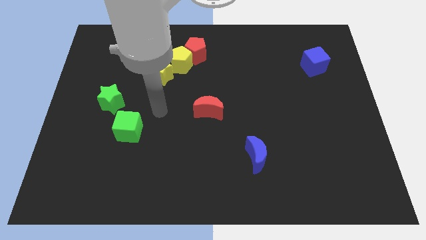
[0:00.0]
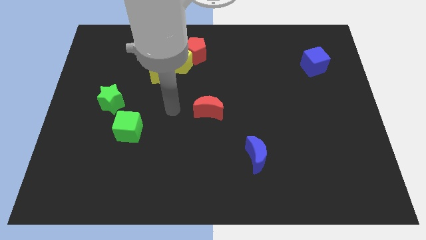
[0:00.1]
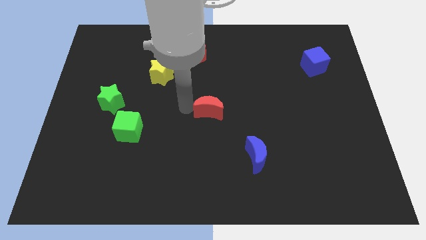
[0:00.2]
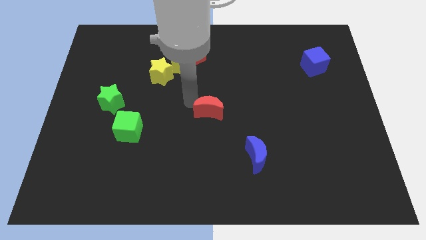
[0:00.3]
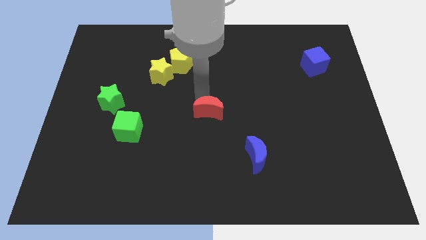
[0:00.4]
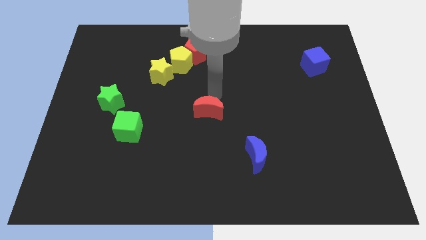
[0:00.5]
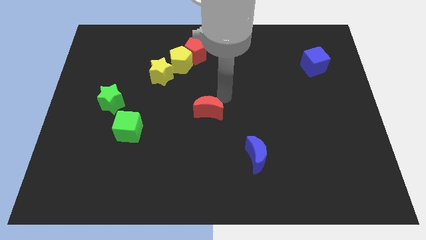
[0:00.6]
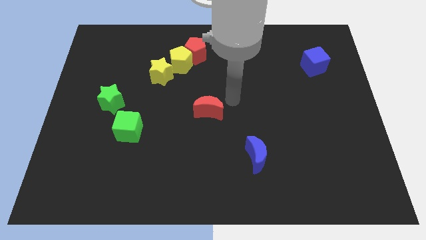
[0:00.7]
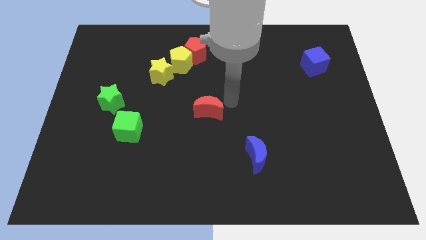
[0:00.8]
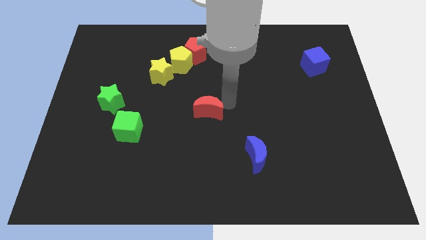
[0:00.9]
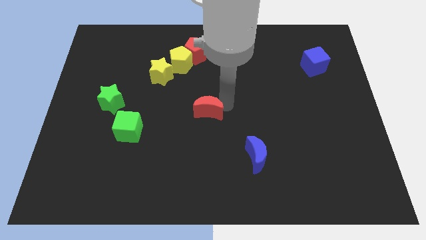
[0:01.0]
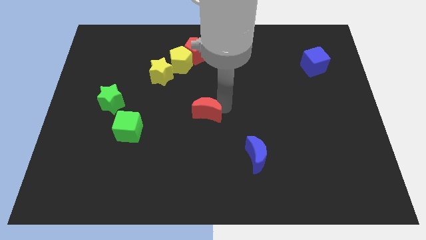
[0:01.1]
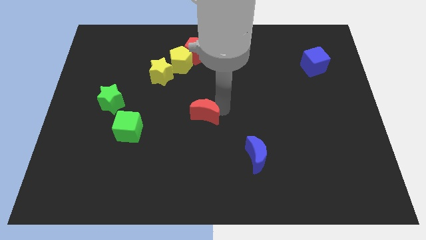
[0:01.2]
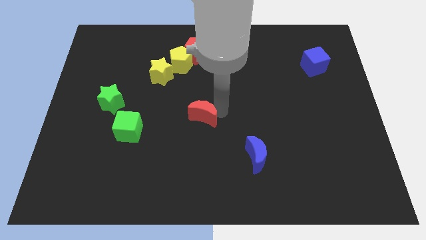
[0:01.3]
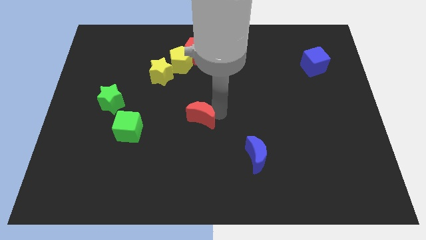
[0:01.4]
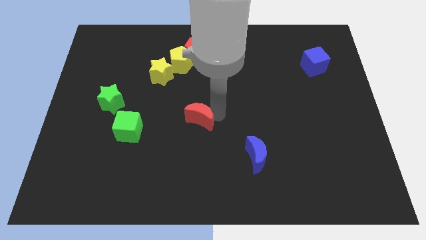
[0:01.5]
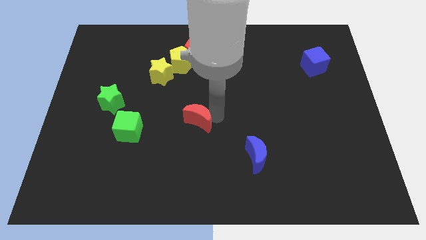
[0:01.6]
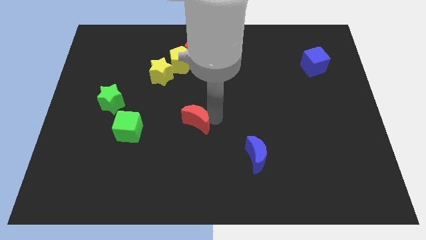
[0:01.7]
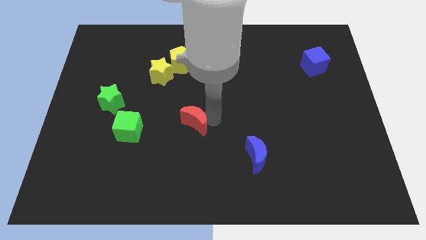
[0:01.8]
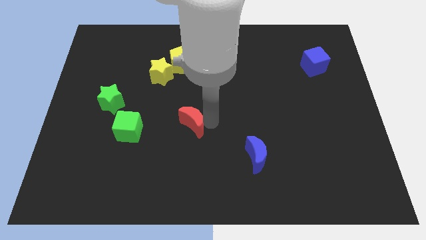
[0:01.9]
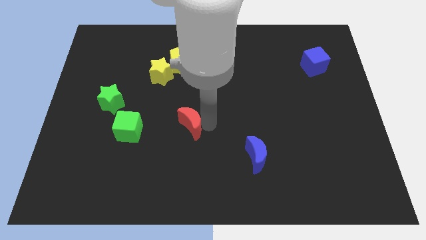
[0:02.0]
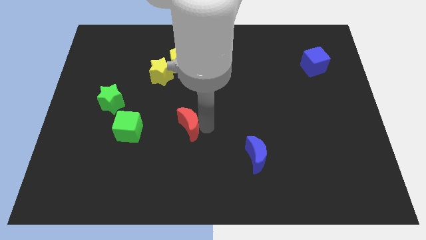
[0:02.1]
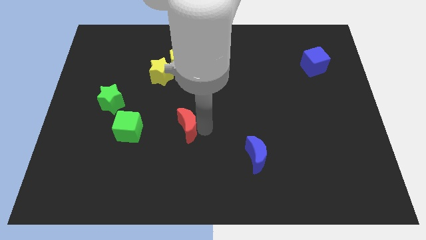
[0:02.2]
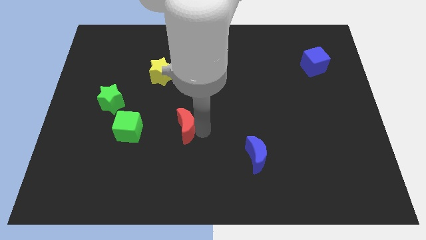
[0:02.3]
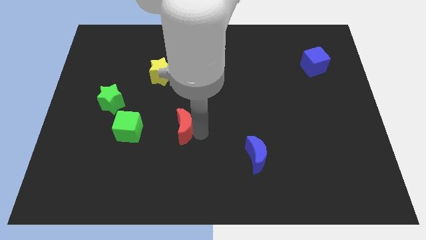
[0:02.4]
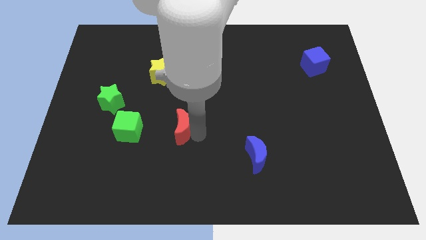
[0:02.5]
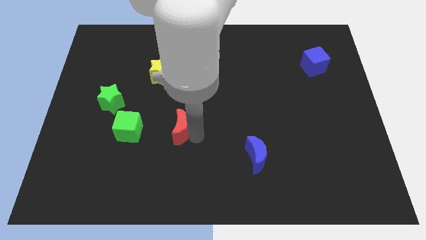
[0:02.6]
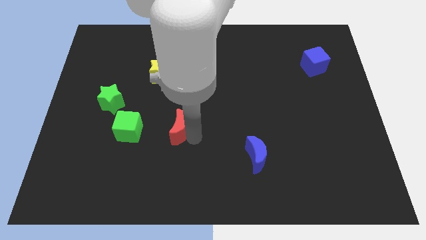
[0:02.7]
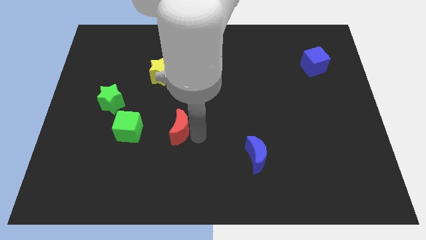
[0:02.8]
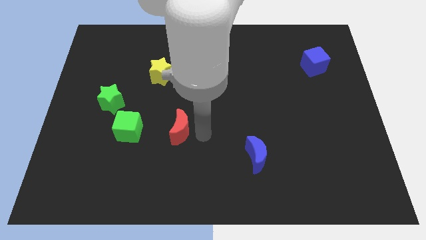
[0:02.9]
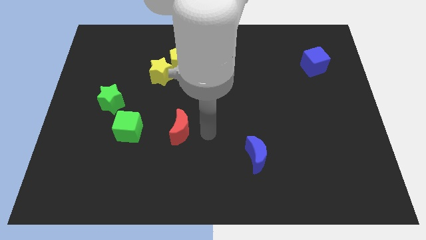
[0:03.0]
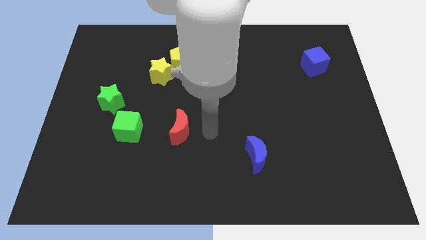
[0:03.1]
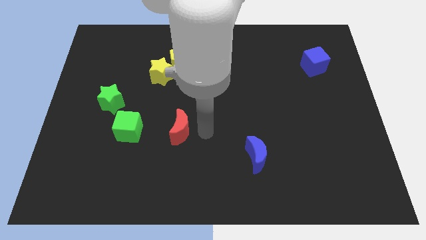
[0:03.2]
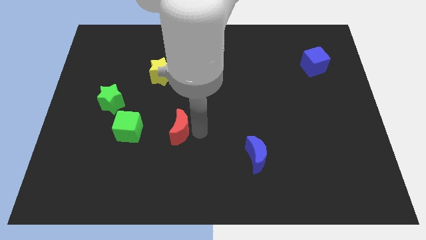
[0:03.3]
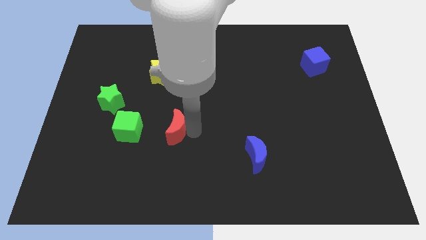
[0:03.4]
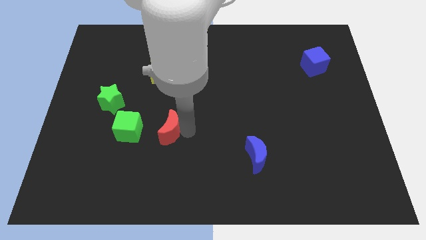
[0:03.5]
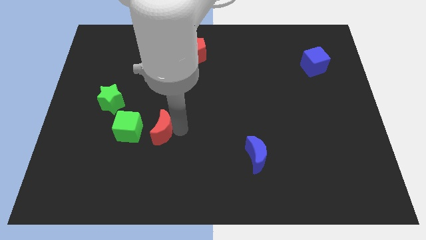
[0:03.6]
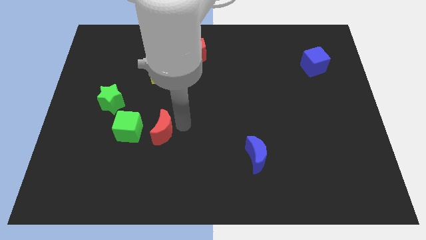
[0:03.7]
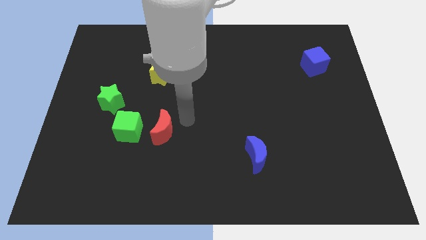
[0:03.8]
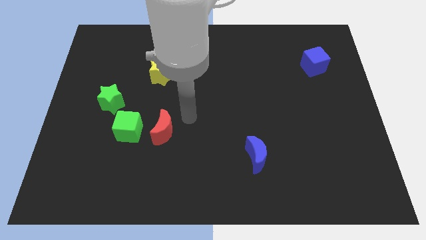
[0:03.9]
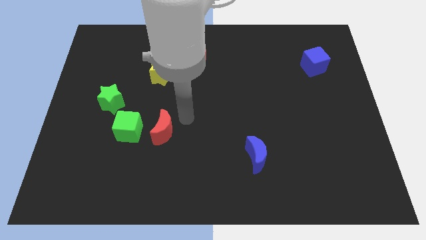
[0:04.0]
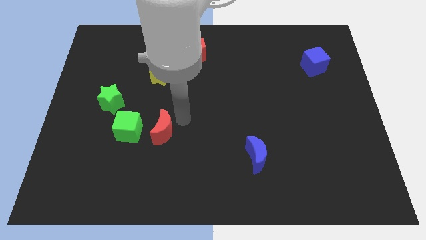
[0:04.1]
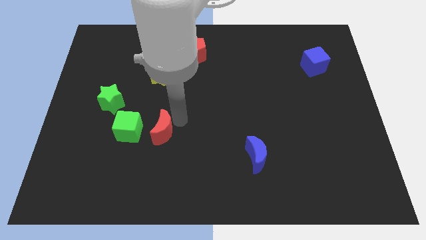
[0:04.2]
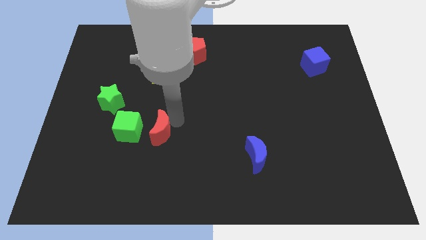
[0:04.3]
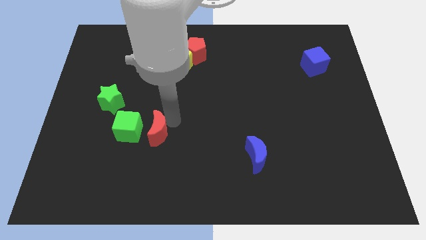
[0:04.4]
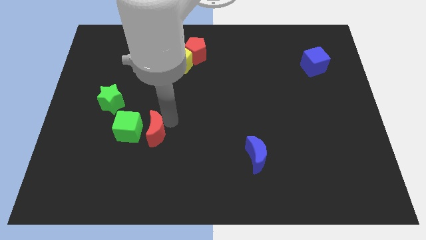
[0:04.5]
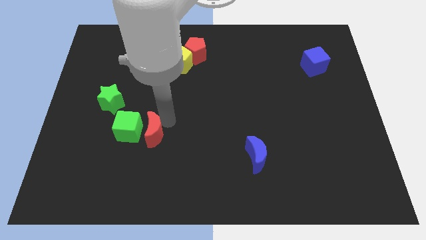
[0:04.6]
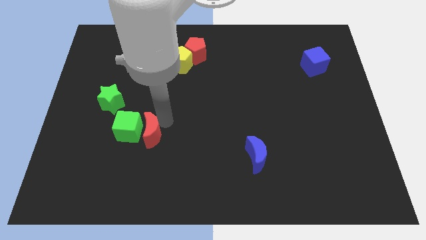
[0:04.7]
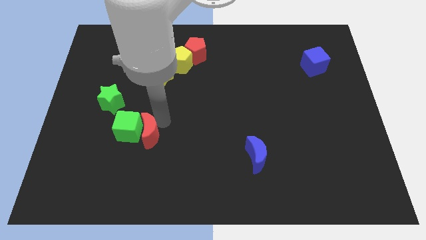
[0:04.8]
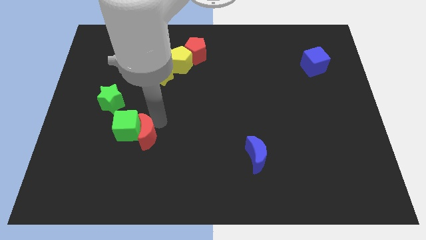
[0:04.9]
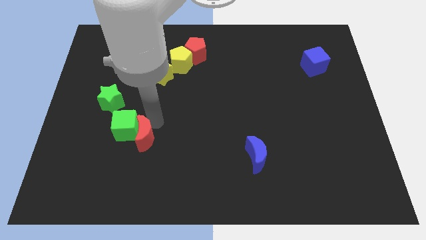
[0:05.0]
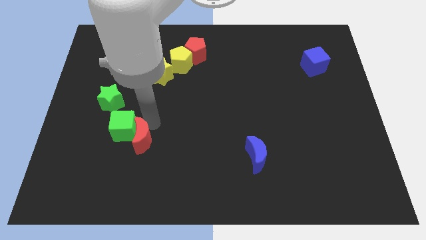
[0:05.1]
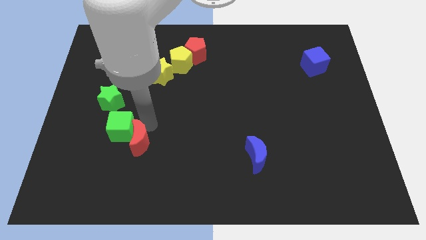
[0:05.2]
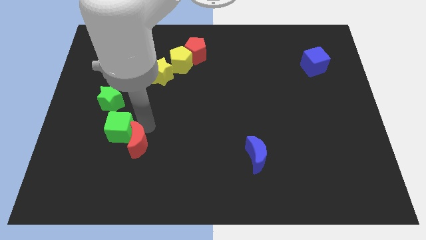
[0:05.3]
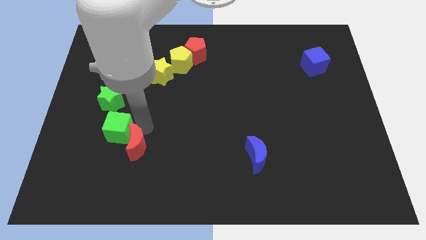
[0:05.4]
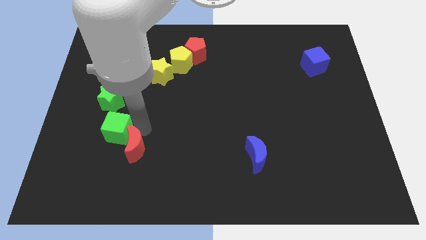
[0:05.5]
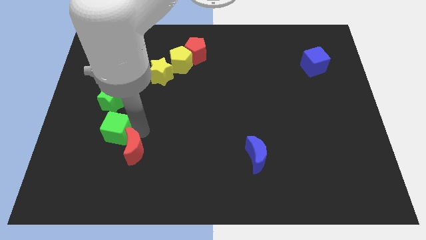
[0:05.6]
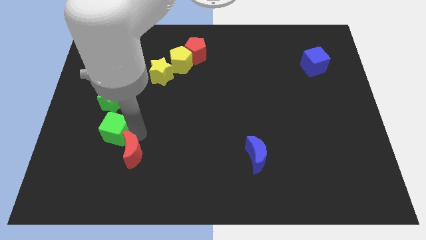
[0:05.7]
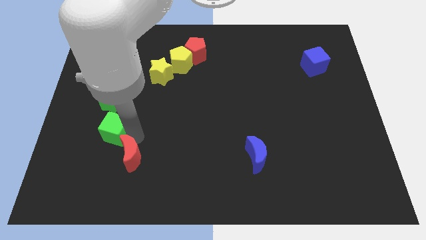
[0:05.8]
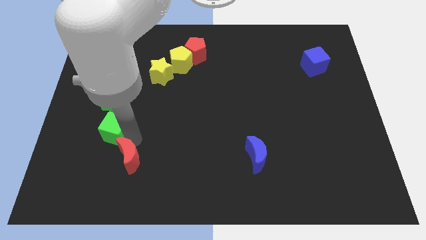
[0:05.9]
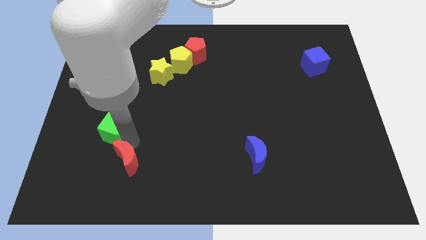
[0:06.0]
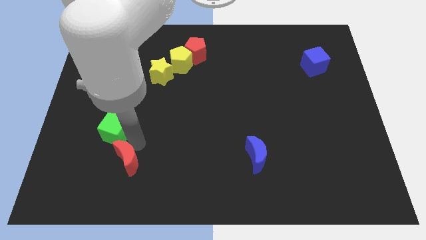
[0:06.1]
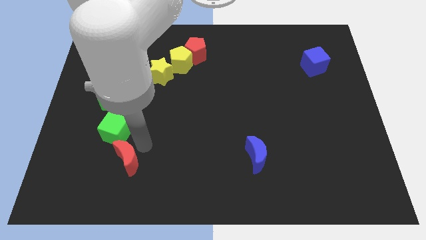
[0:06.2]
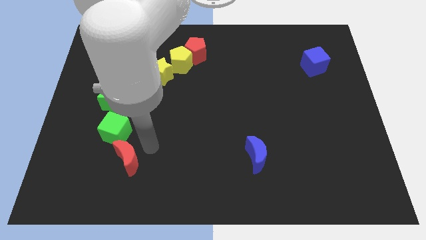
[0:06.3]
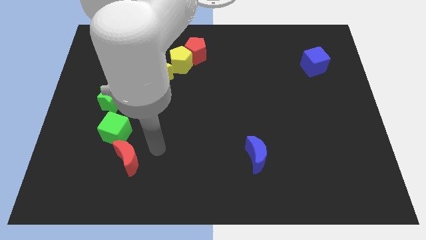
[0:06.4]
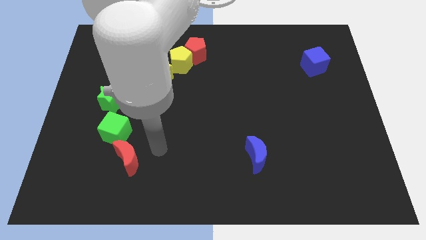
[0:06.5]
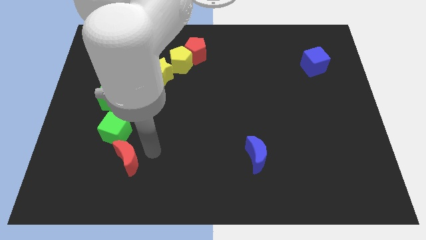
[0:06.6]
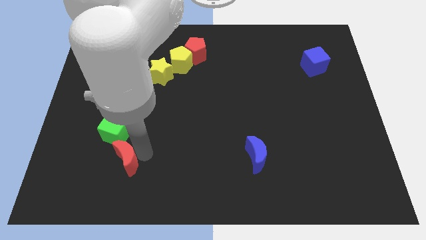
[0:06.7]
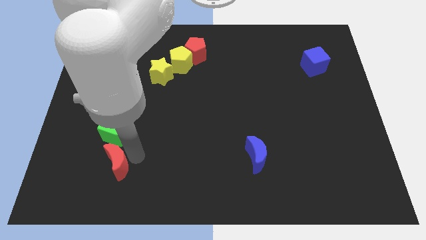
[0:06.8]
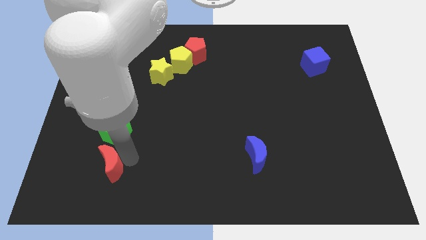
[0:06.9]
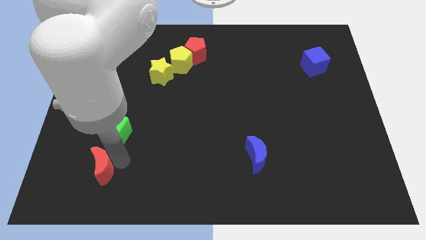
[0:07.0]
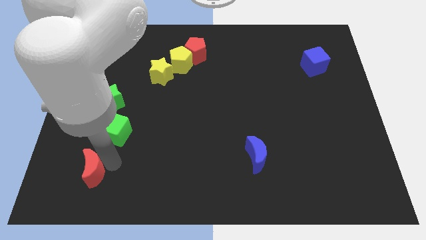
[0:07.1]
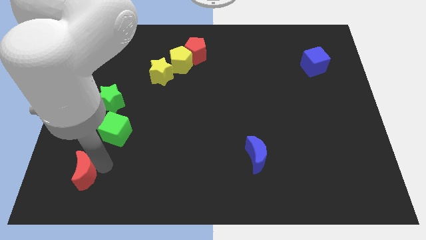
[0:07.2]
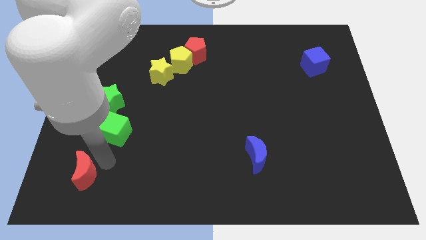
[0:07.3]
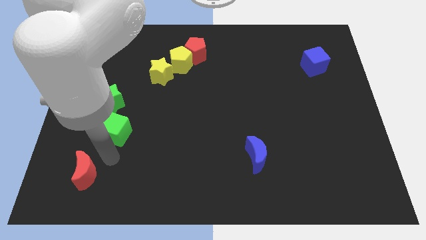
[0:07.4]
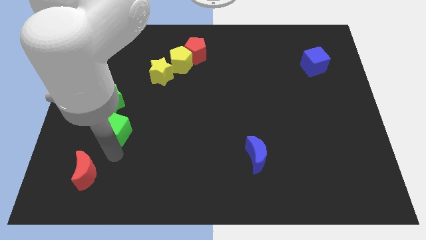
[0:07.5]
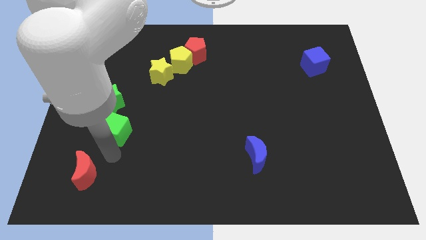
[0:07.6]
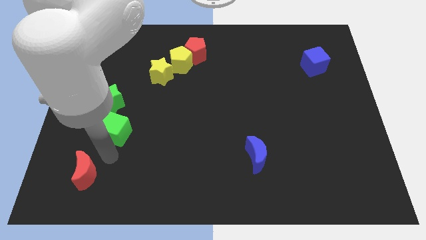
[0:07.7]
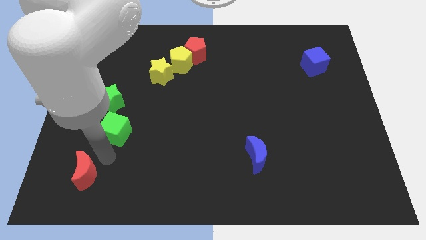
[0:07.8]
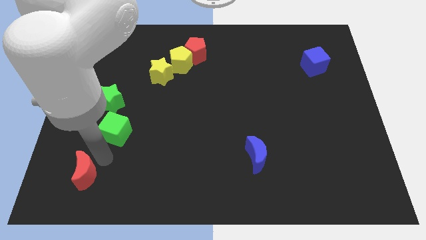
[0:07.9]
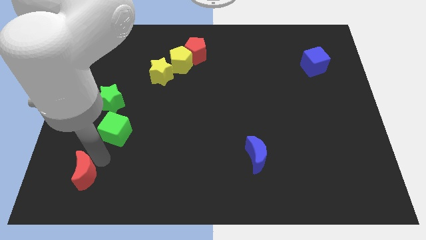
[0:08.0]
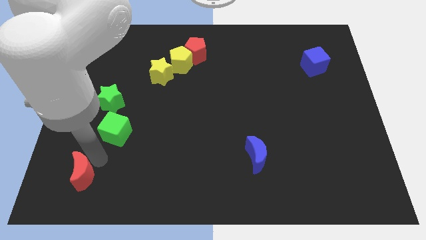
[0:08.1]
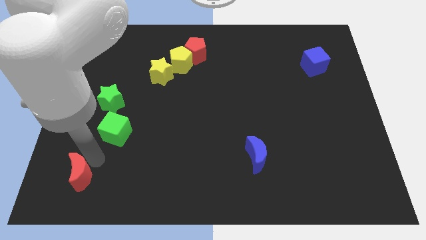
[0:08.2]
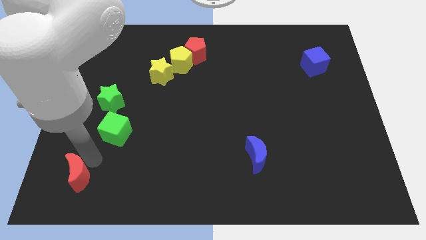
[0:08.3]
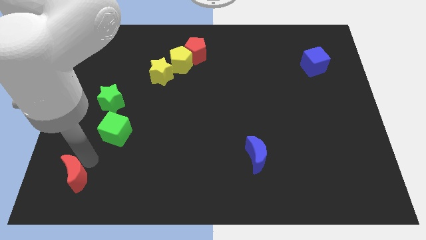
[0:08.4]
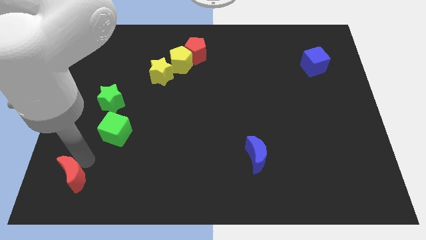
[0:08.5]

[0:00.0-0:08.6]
put the red moon to the bottom left corner
